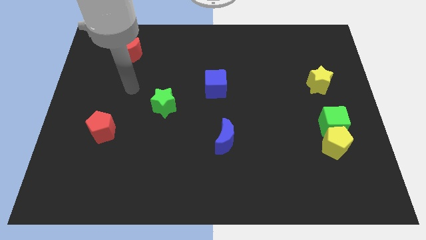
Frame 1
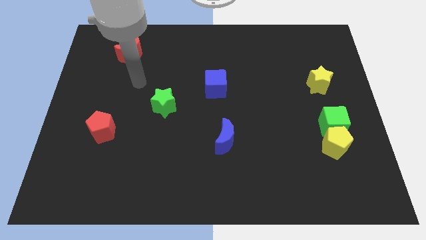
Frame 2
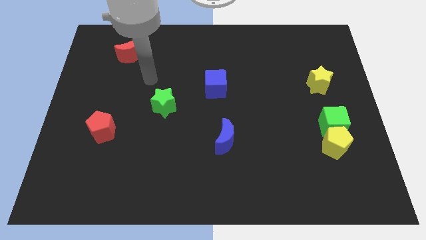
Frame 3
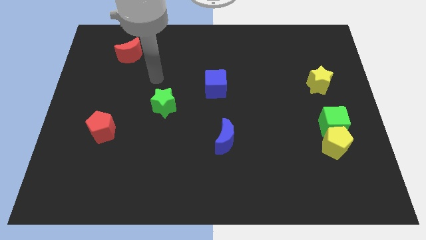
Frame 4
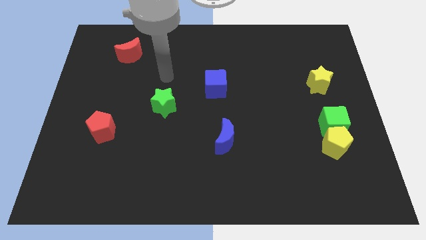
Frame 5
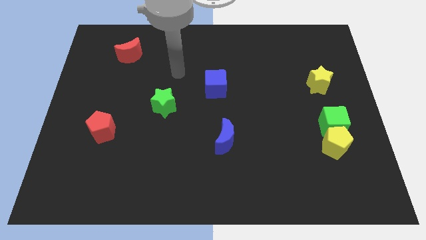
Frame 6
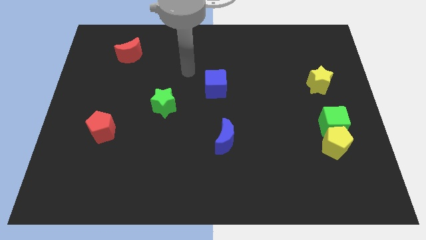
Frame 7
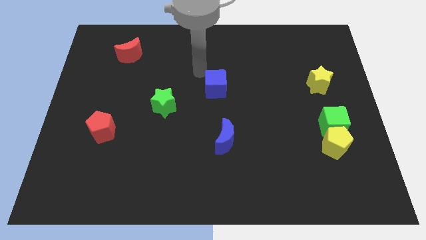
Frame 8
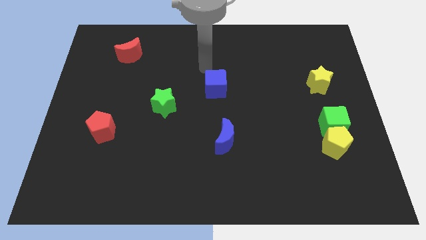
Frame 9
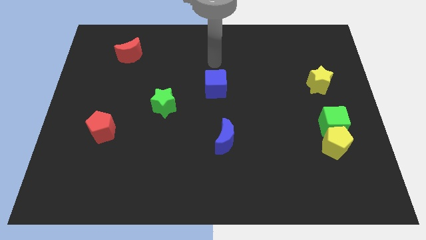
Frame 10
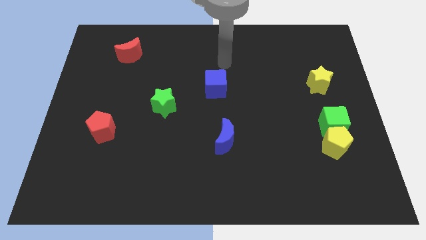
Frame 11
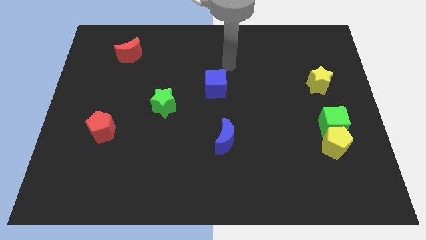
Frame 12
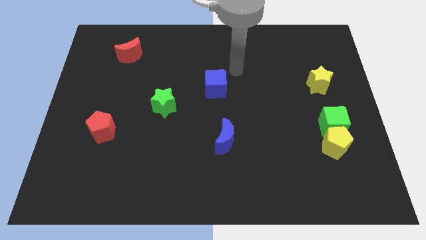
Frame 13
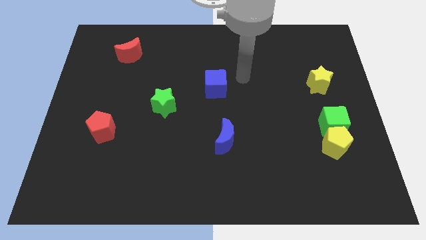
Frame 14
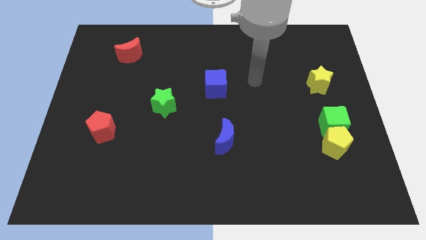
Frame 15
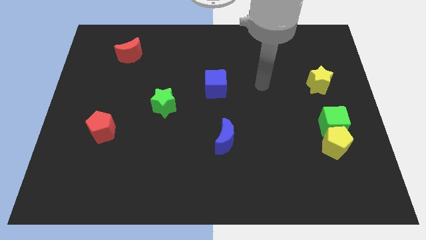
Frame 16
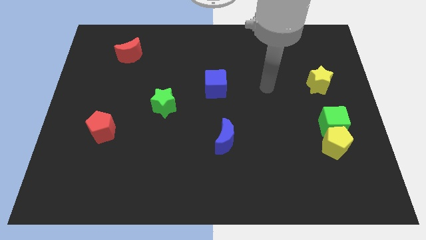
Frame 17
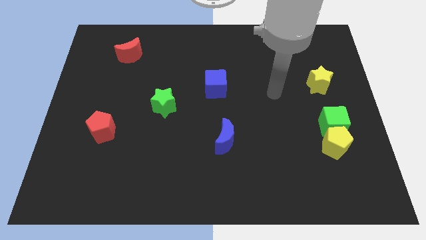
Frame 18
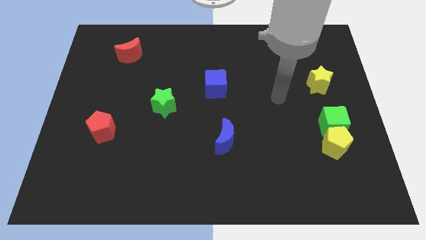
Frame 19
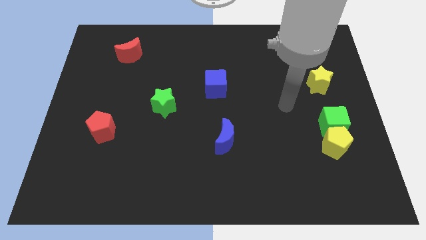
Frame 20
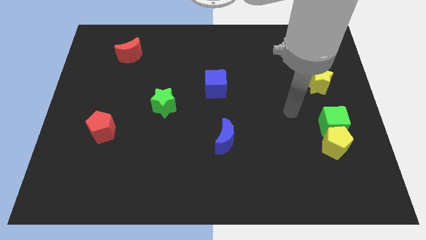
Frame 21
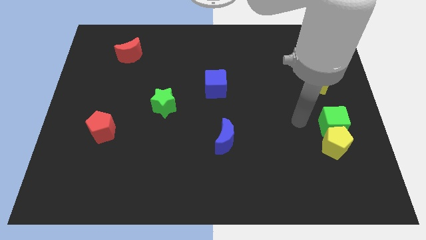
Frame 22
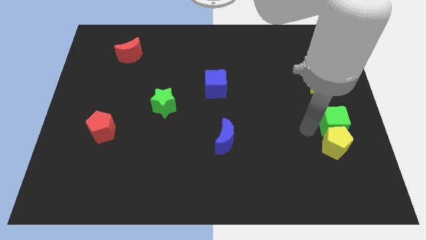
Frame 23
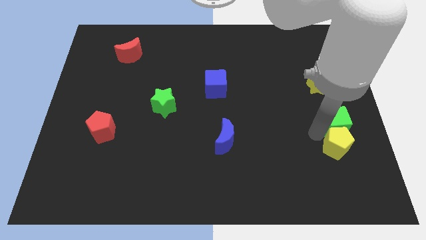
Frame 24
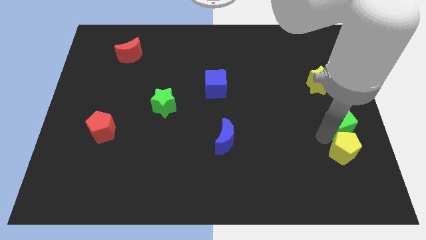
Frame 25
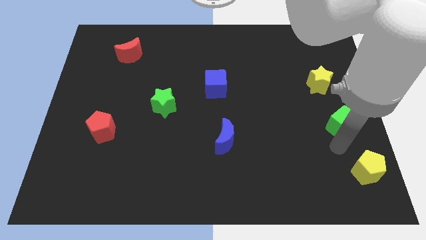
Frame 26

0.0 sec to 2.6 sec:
move the green cube away from the yellow pentagon

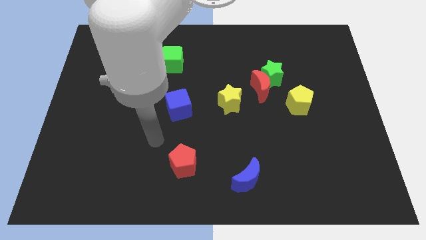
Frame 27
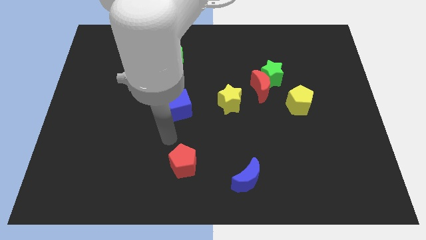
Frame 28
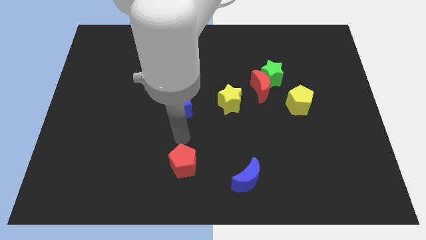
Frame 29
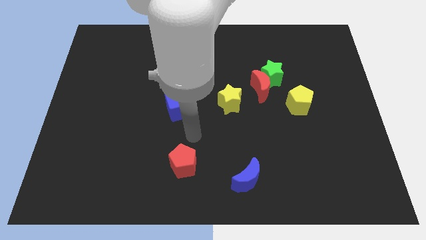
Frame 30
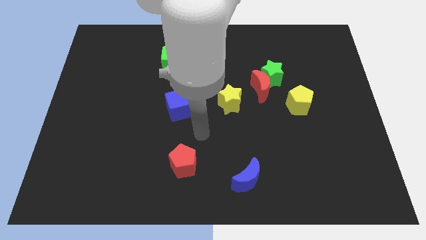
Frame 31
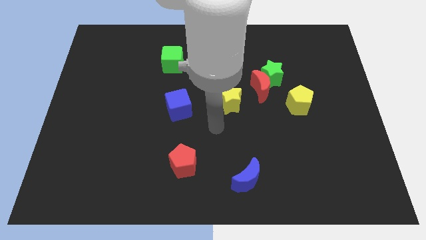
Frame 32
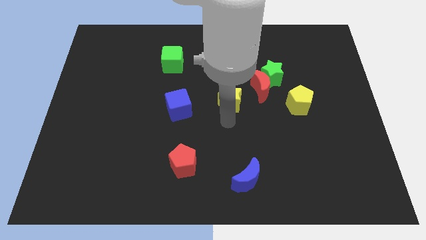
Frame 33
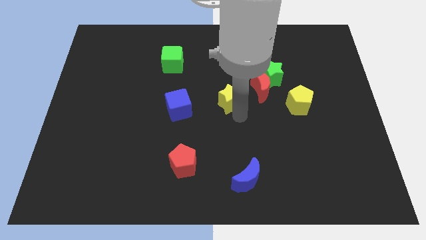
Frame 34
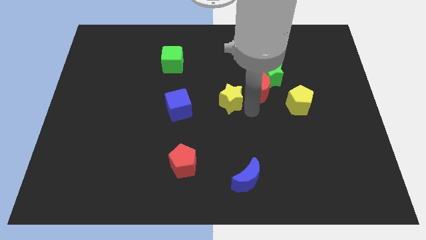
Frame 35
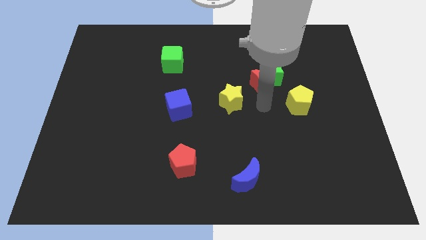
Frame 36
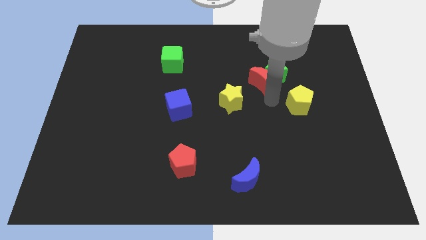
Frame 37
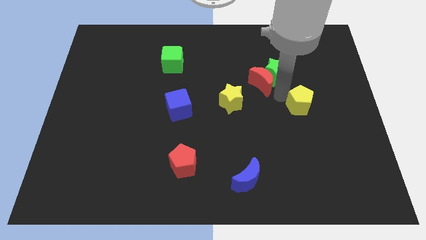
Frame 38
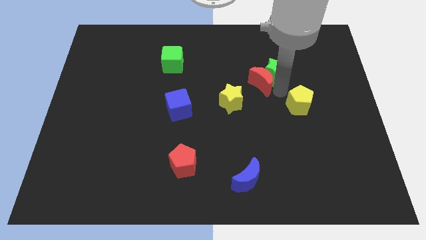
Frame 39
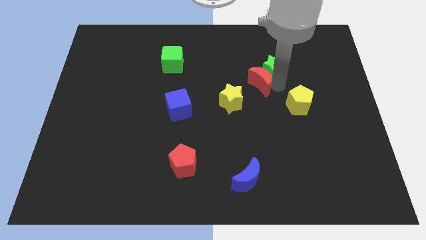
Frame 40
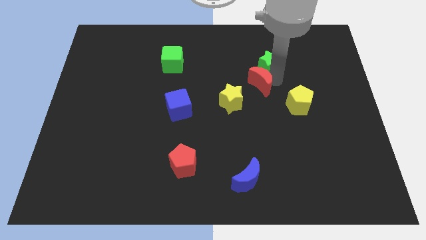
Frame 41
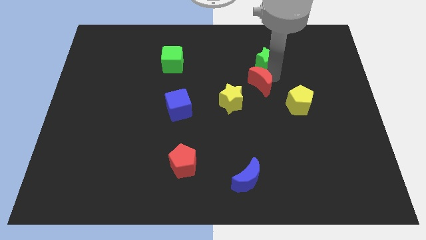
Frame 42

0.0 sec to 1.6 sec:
move the green star away from the red moon and yellow pentagon

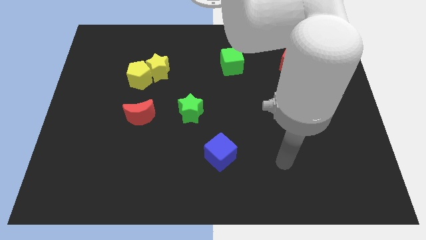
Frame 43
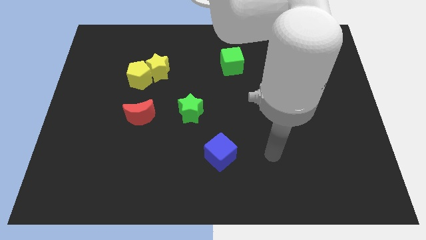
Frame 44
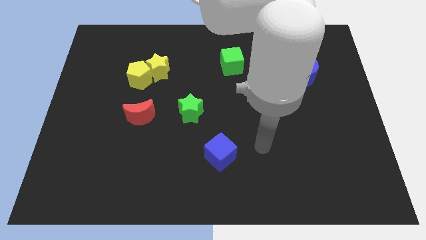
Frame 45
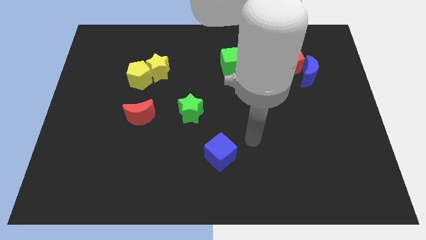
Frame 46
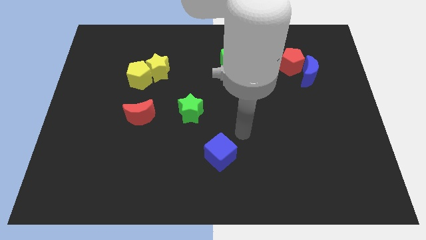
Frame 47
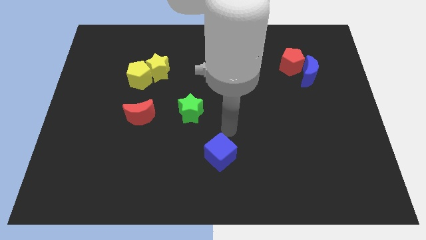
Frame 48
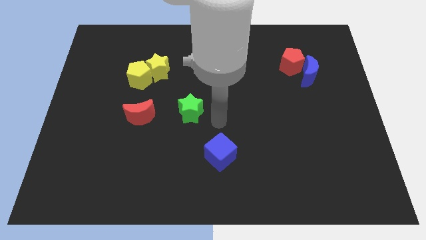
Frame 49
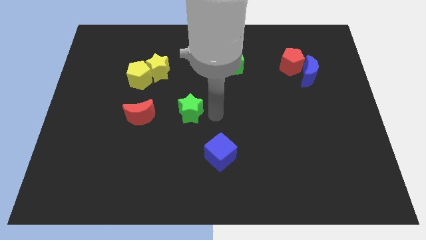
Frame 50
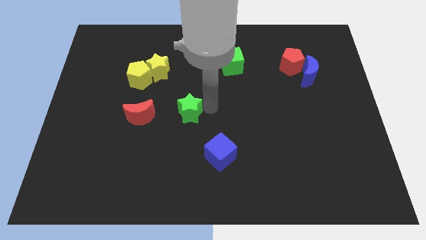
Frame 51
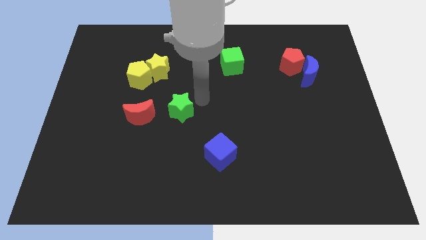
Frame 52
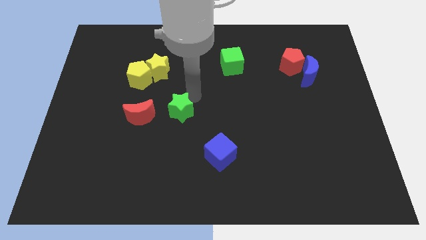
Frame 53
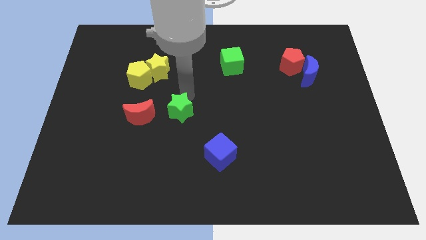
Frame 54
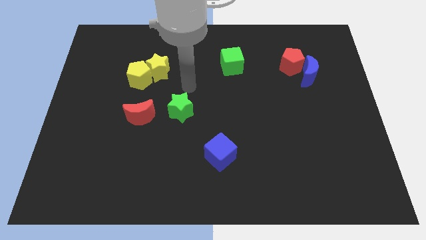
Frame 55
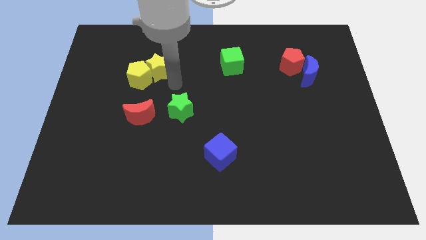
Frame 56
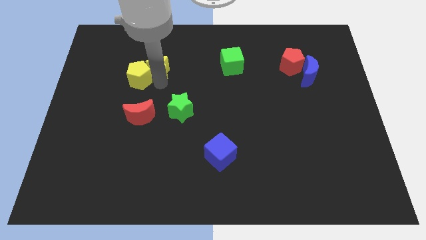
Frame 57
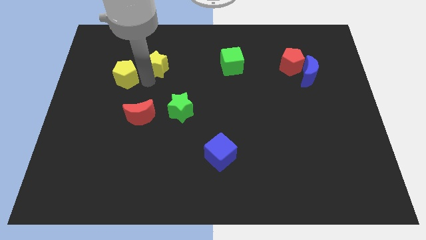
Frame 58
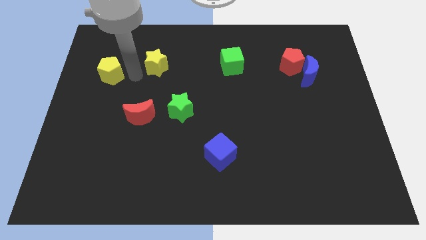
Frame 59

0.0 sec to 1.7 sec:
separate the yellow star from the yellow pentagon

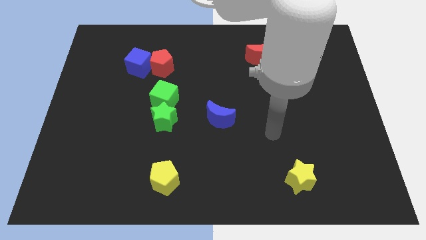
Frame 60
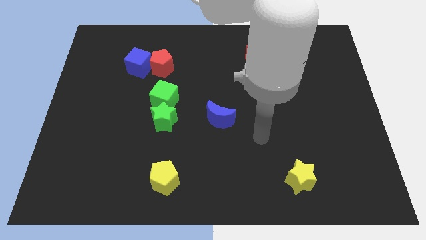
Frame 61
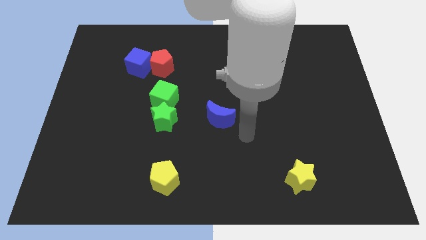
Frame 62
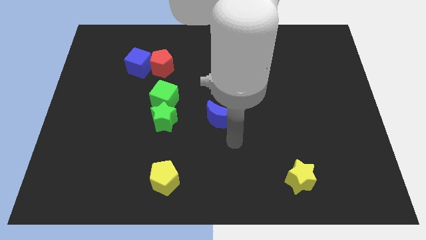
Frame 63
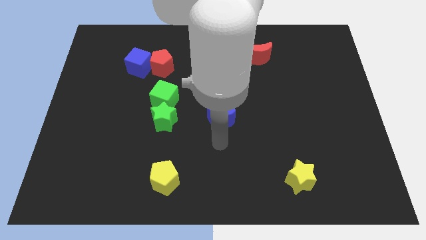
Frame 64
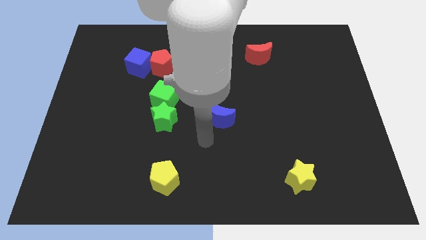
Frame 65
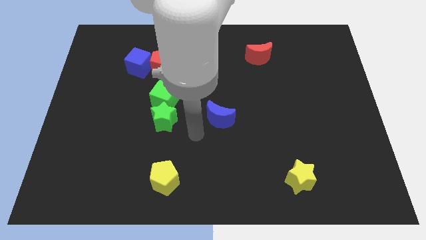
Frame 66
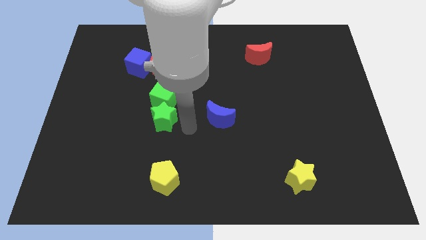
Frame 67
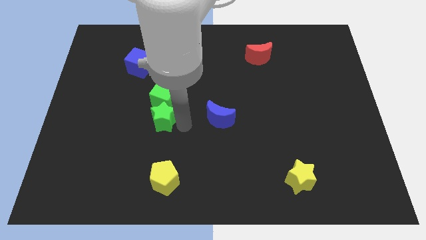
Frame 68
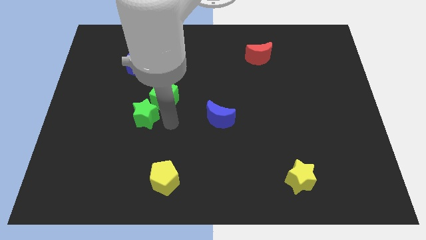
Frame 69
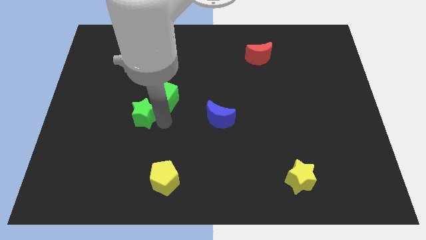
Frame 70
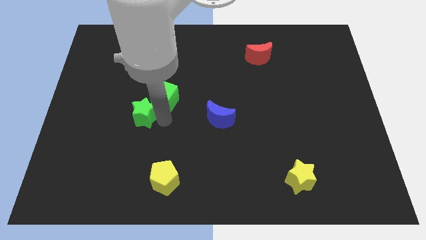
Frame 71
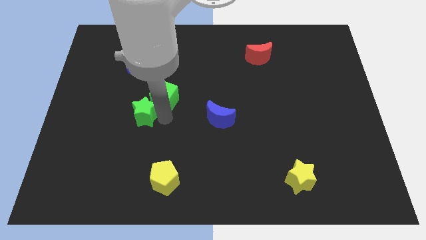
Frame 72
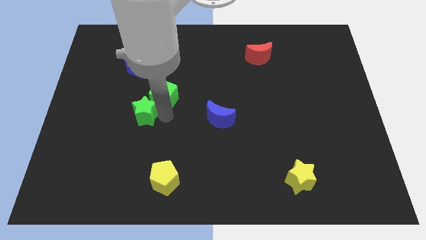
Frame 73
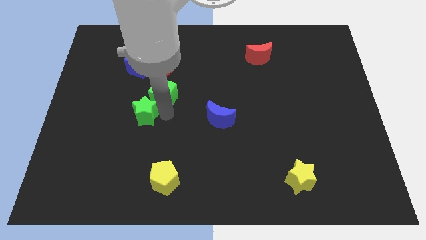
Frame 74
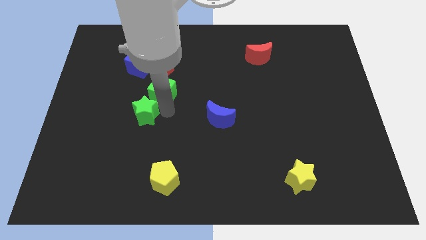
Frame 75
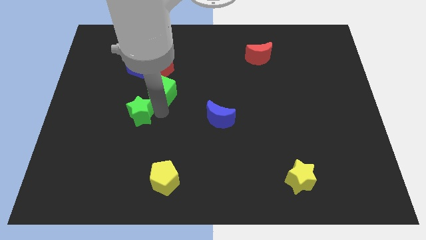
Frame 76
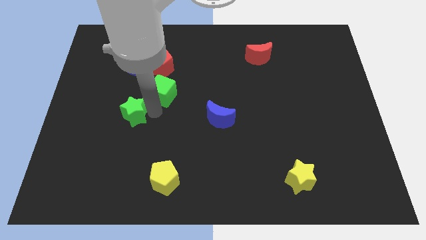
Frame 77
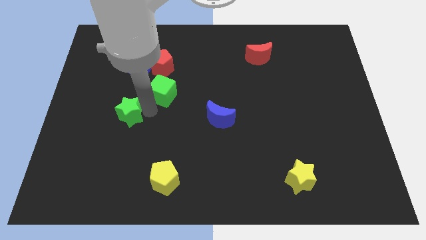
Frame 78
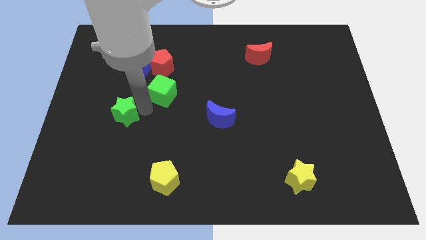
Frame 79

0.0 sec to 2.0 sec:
pull the green cube apart from the green star

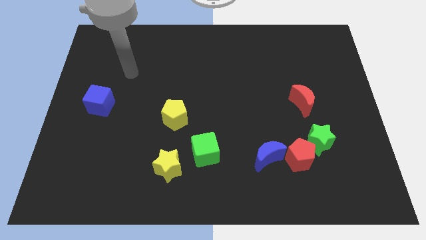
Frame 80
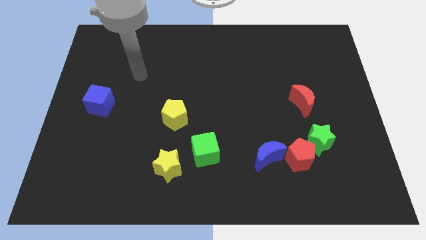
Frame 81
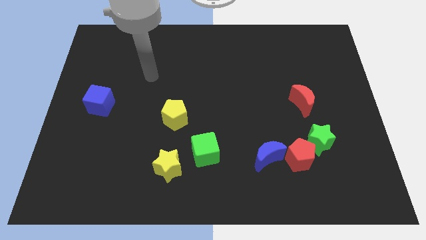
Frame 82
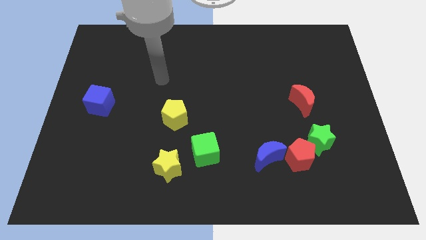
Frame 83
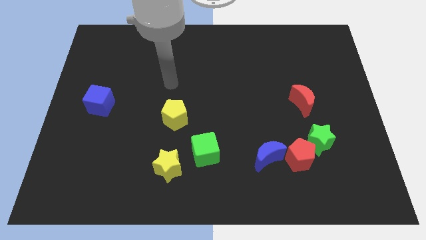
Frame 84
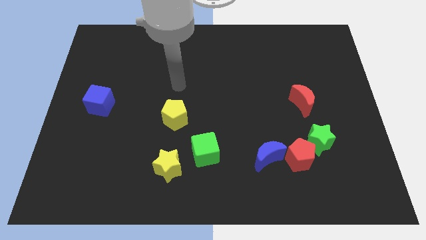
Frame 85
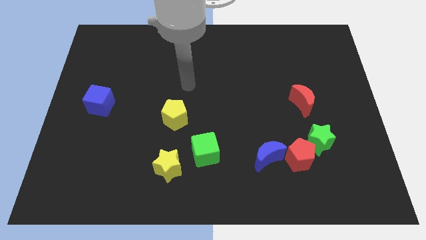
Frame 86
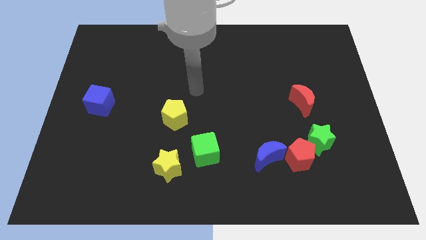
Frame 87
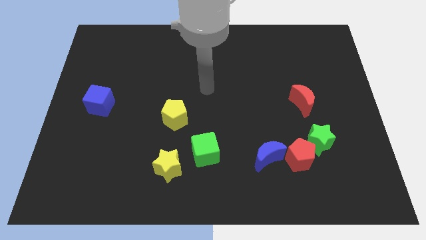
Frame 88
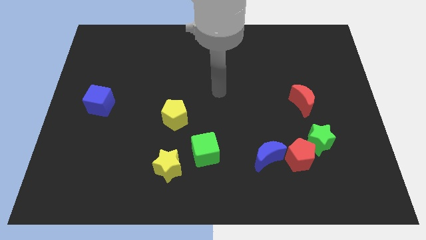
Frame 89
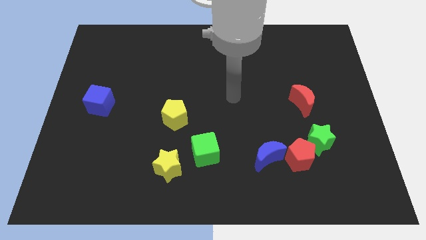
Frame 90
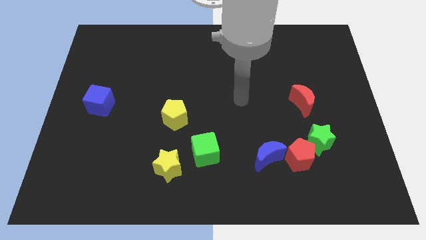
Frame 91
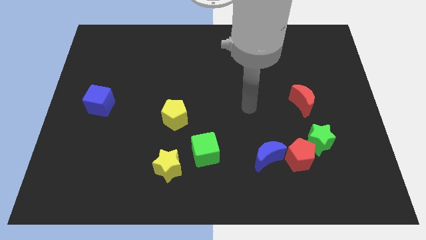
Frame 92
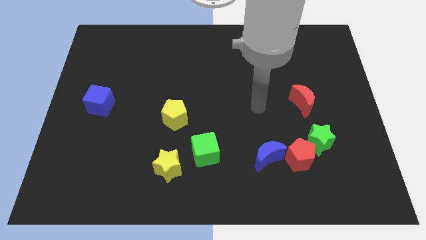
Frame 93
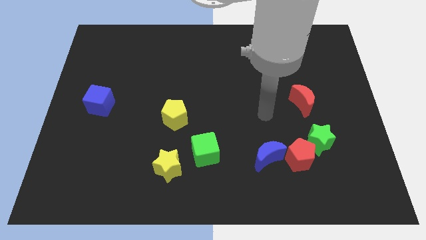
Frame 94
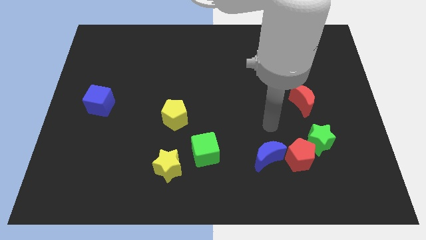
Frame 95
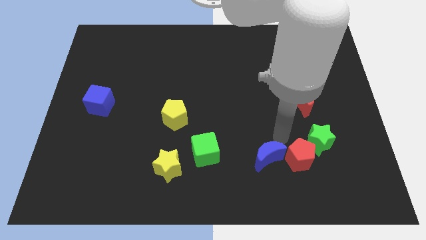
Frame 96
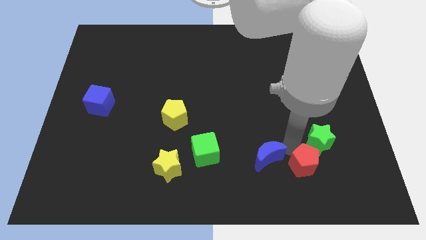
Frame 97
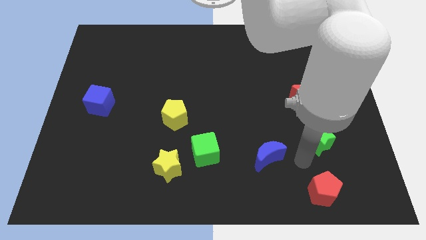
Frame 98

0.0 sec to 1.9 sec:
separate the green star from the red pentagon
